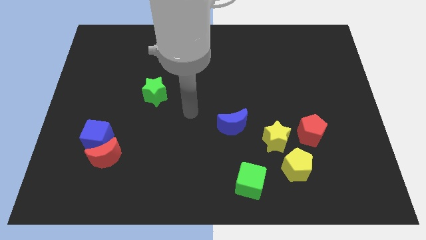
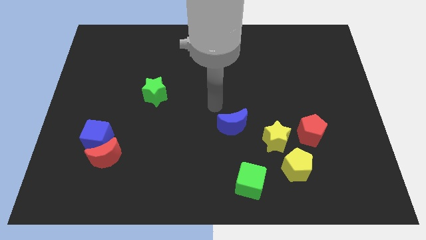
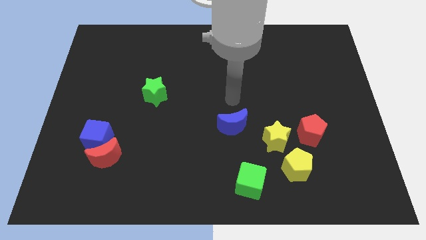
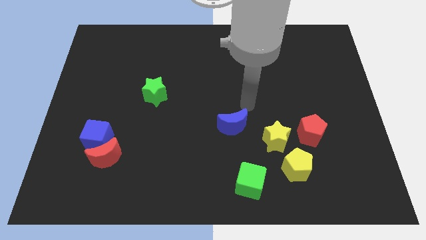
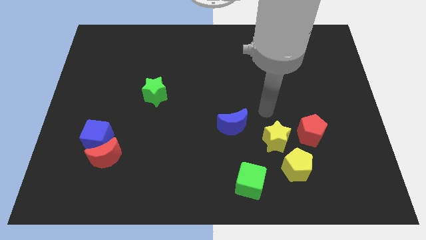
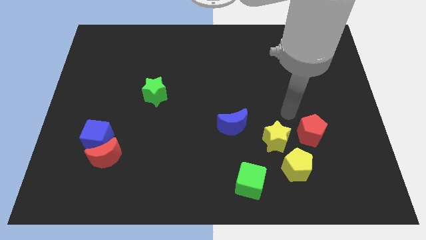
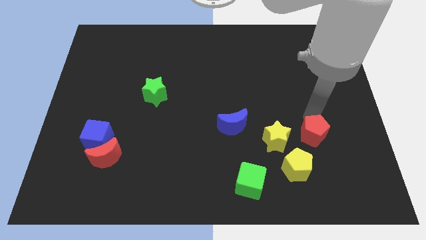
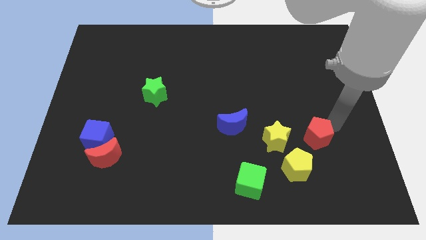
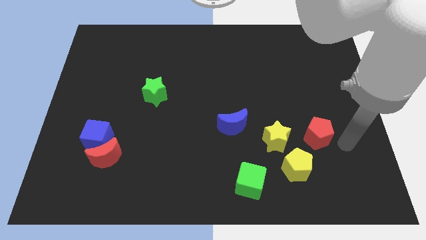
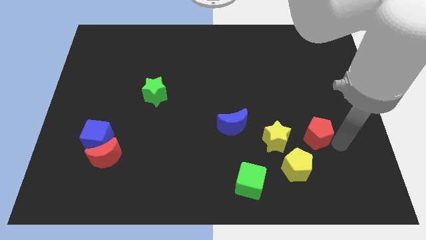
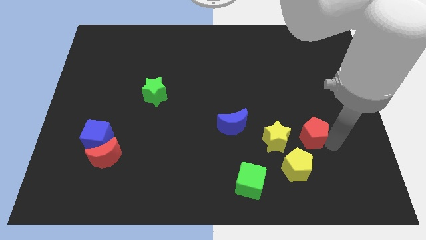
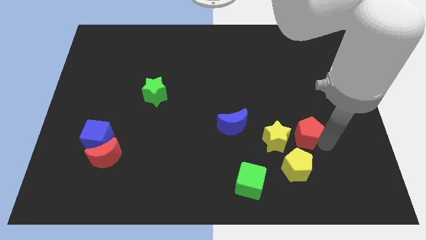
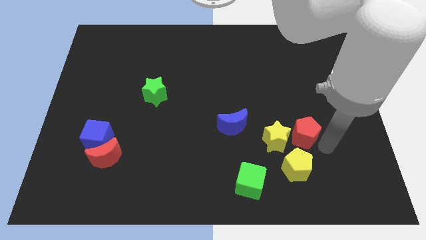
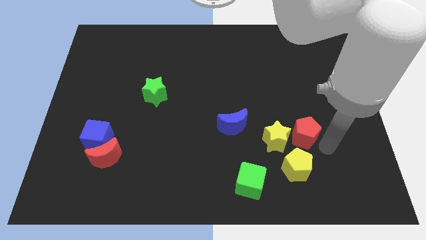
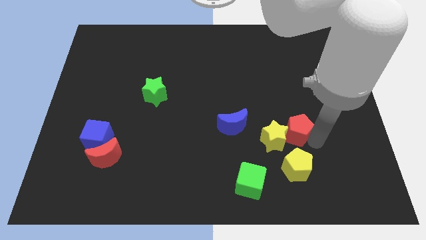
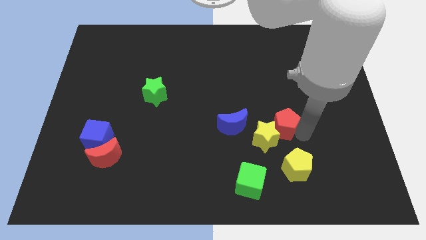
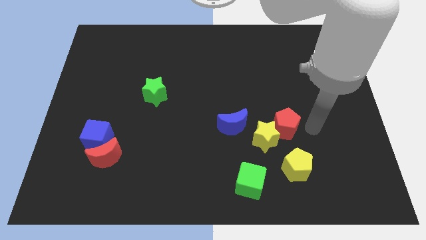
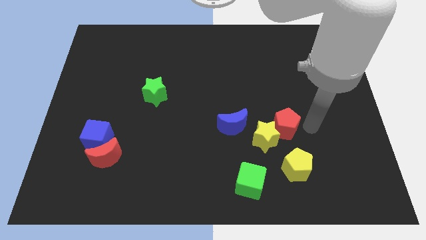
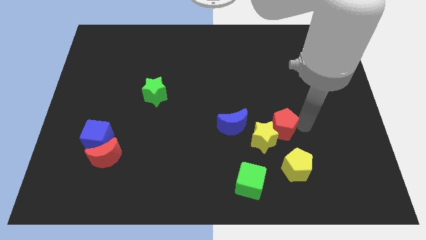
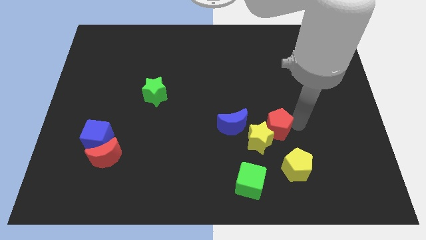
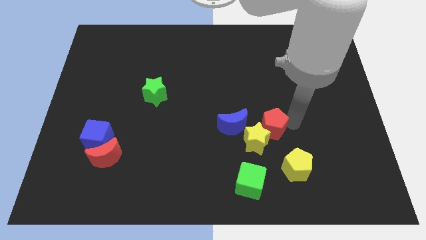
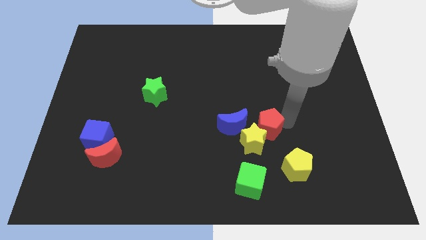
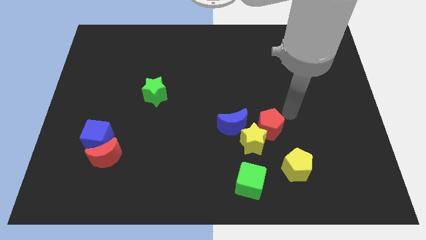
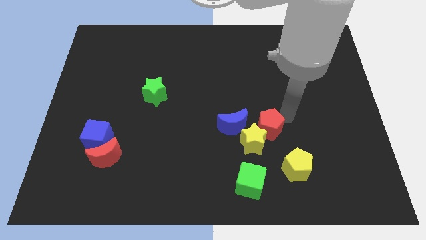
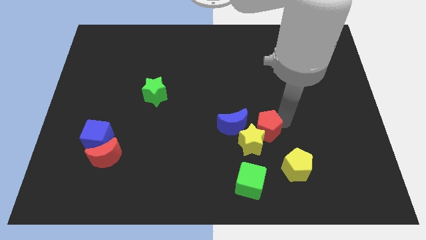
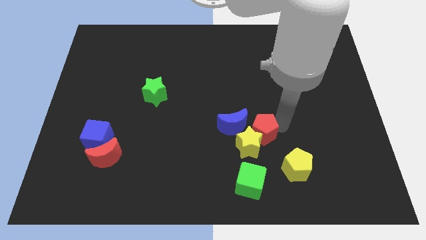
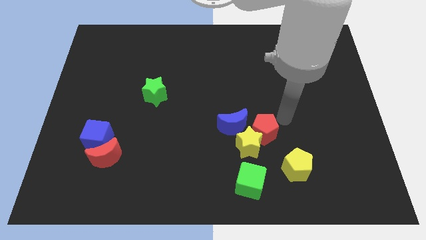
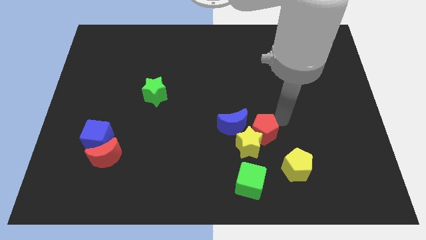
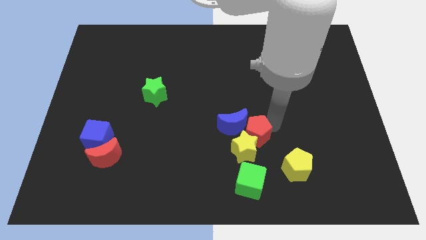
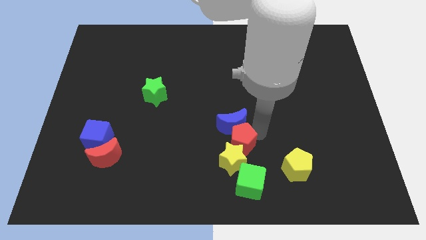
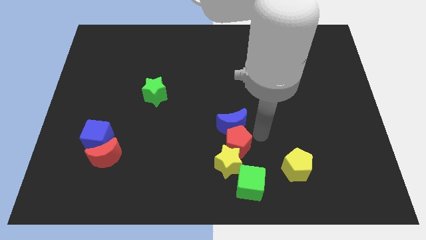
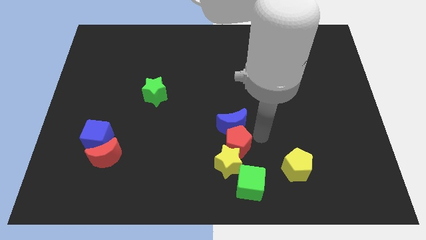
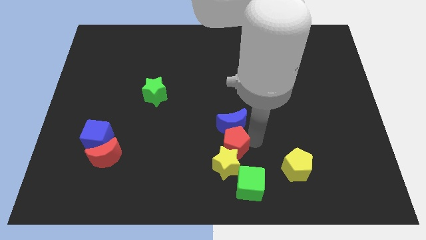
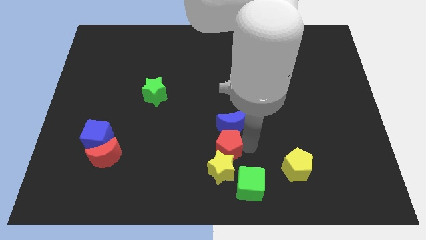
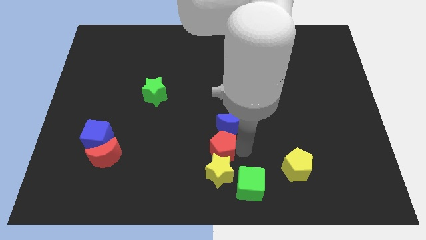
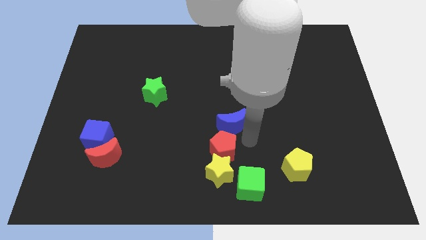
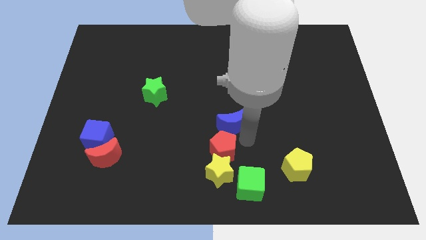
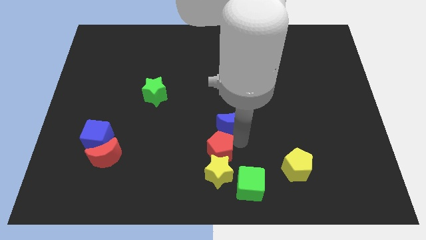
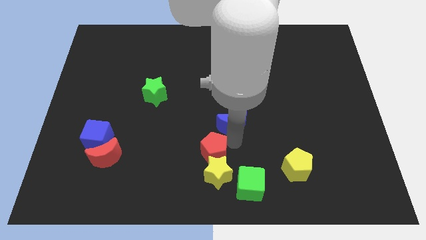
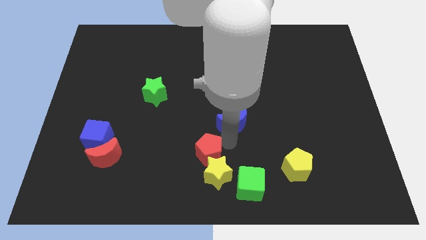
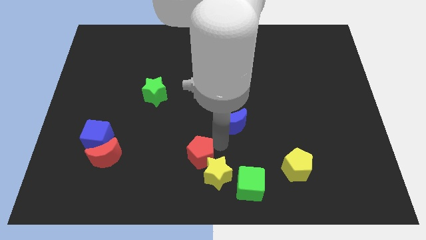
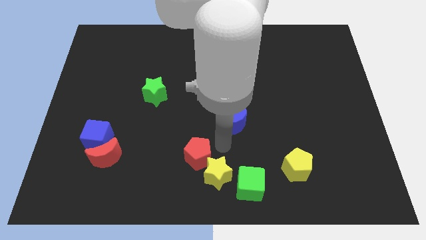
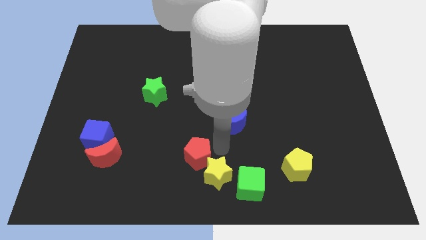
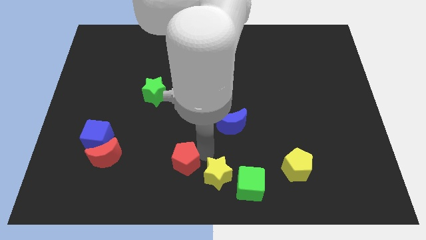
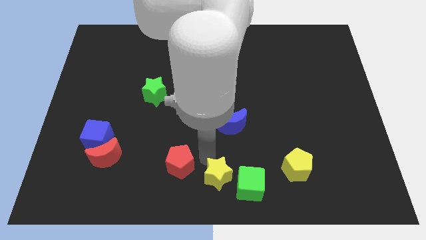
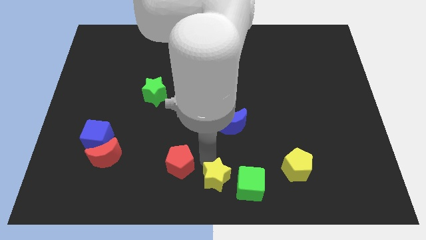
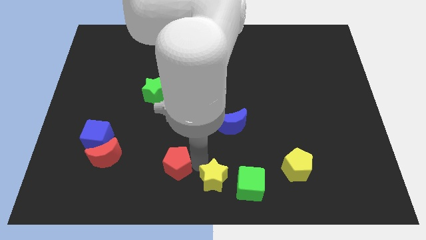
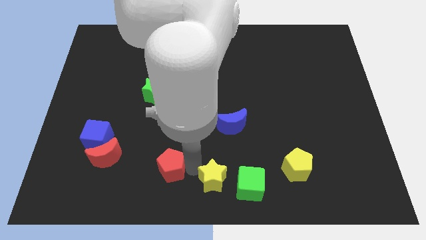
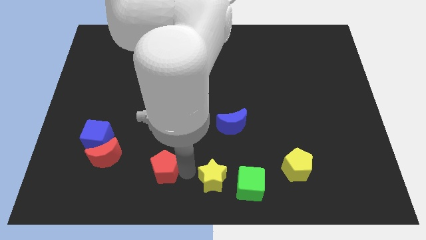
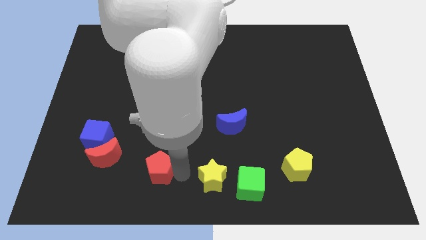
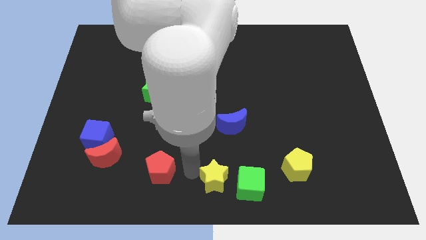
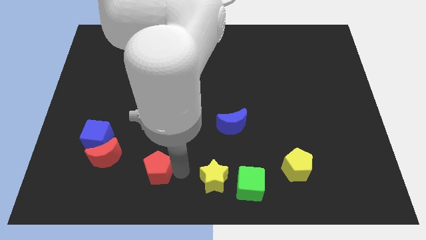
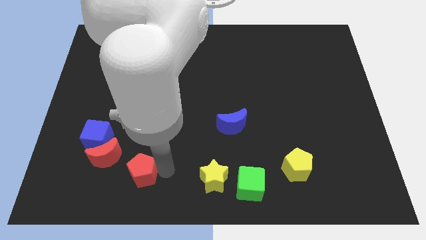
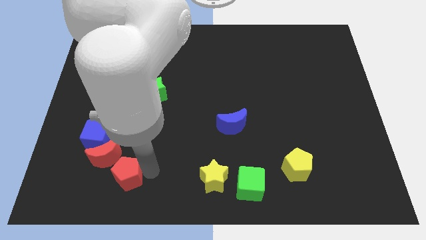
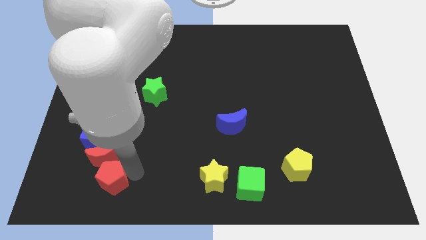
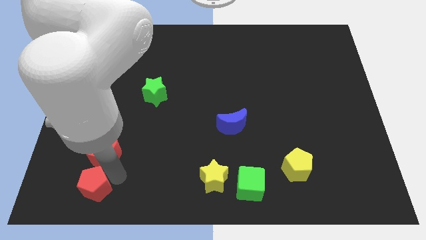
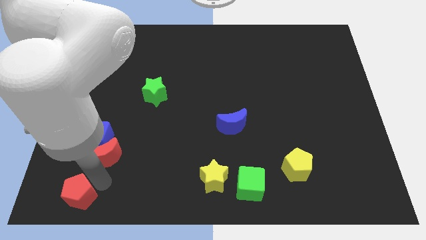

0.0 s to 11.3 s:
push the red pentagon to the lower left corner

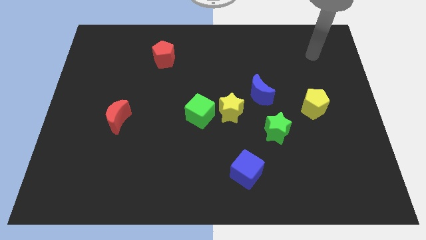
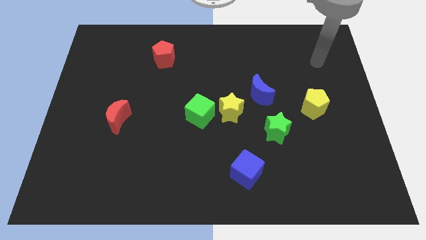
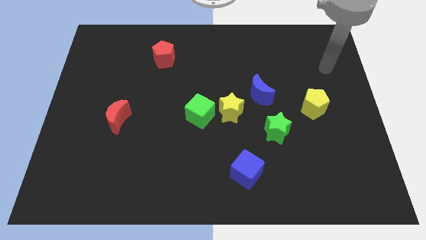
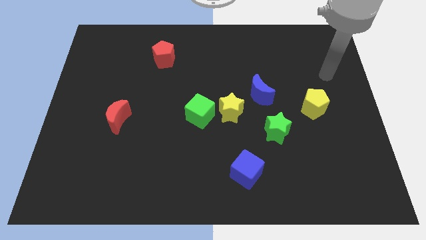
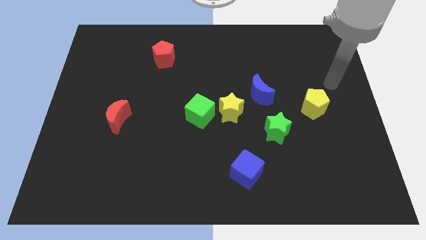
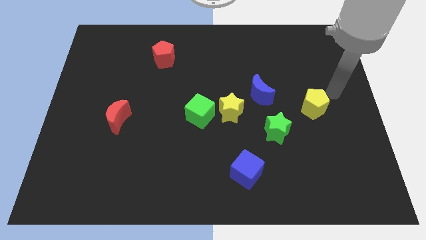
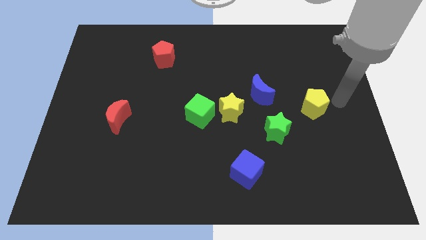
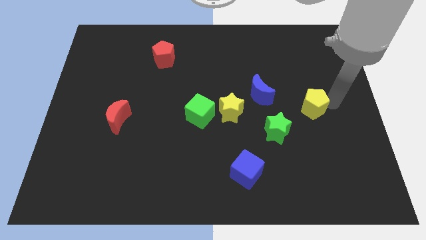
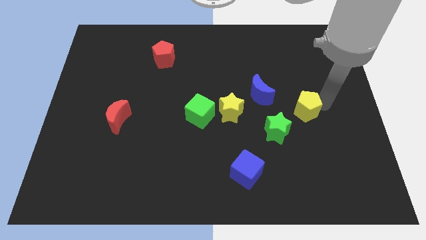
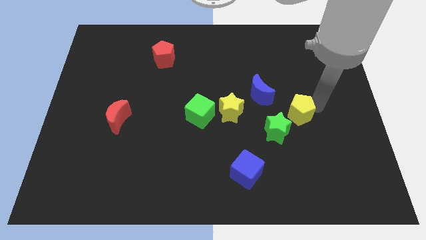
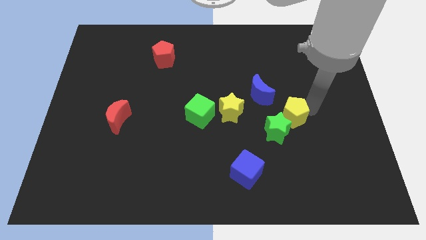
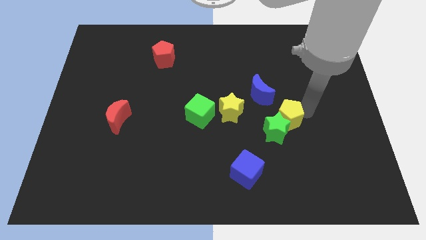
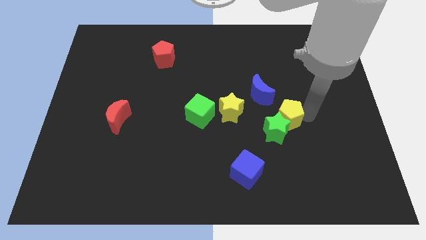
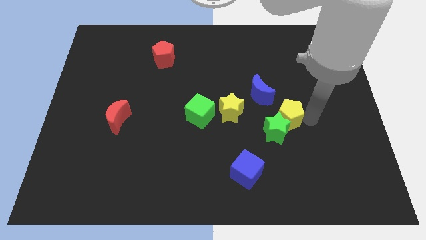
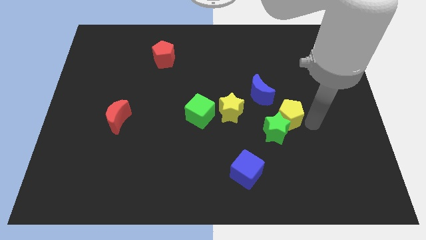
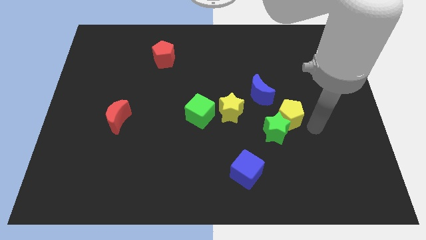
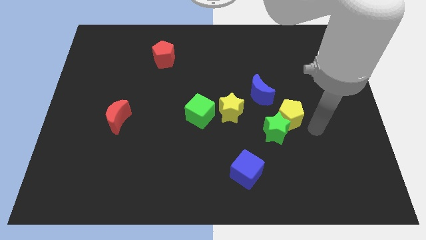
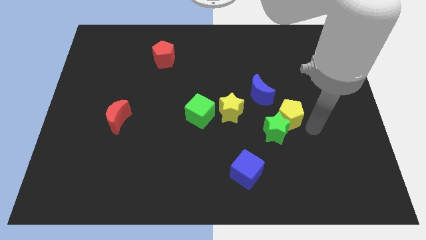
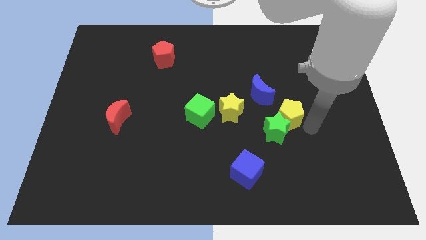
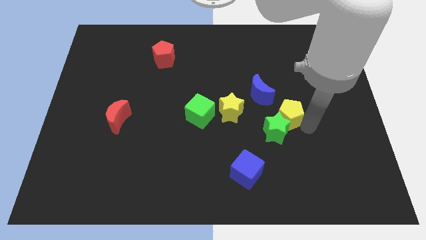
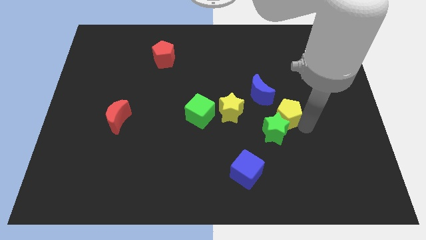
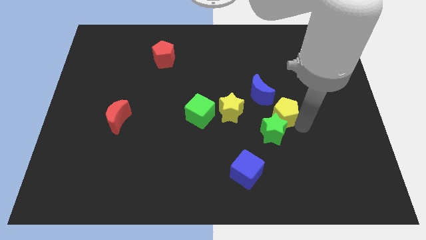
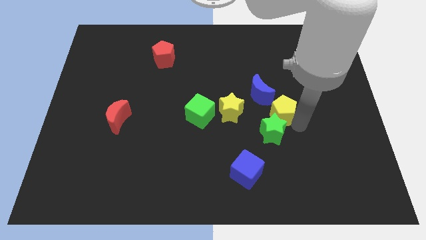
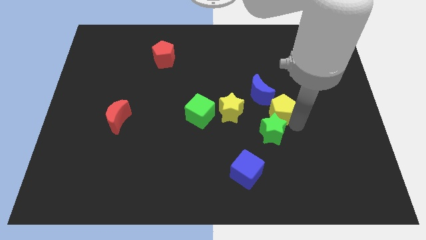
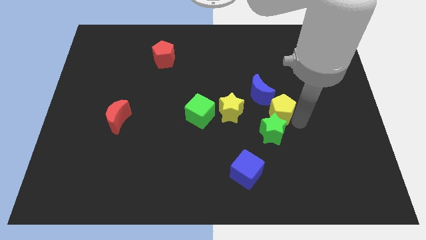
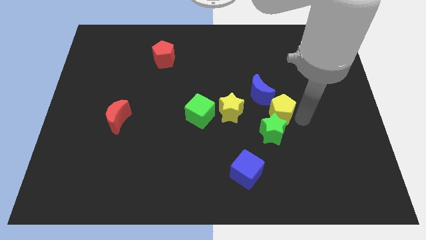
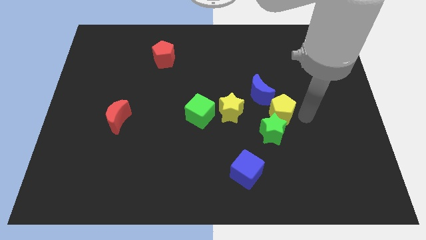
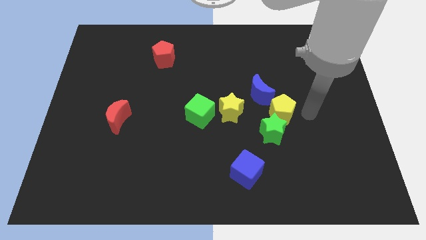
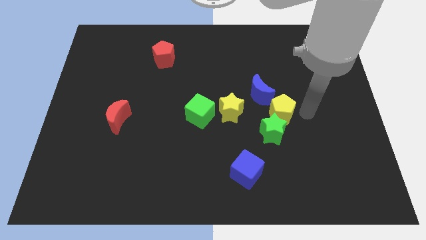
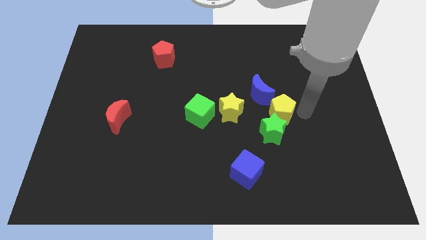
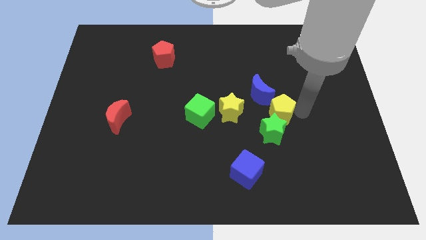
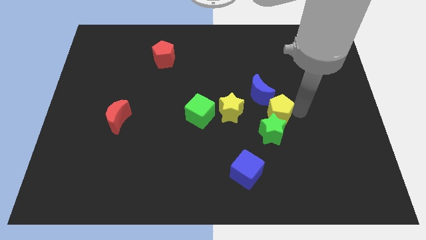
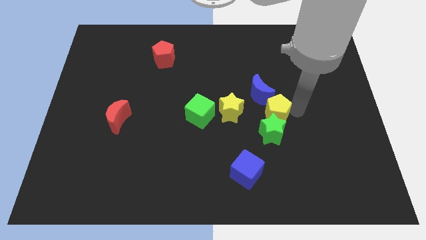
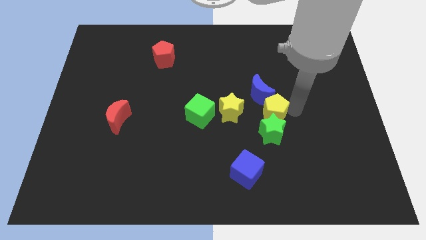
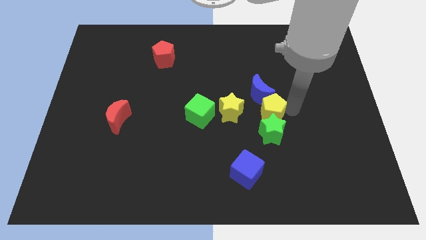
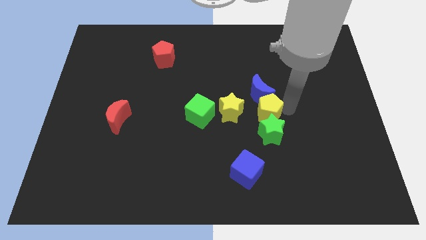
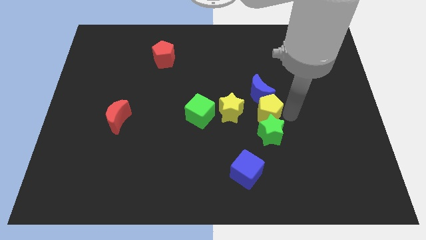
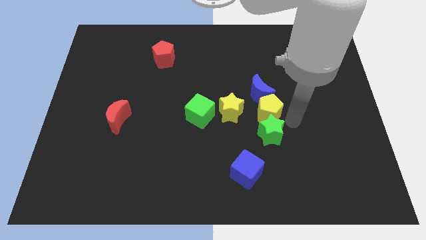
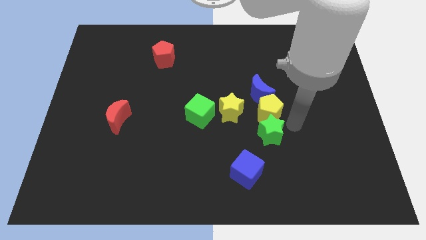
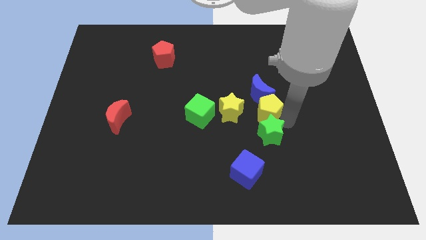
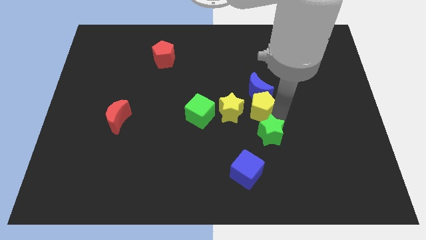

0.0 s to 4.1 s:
put the yellow pentagon to the center of the board
